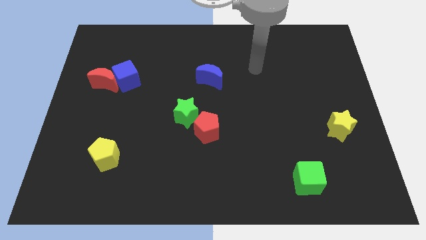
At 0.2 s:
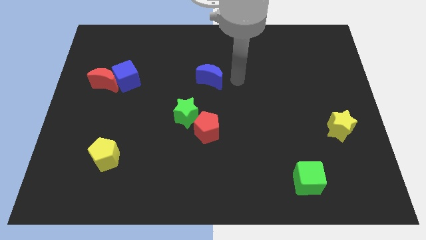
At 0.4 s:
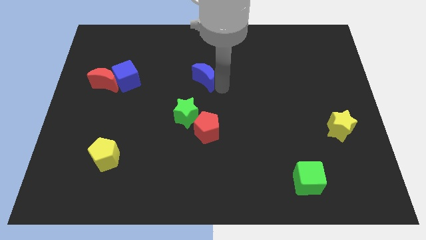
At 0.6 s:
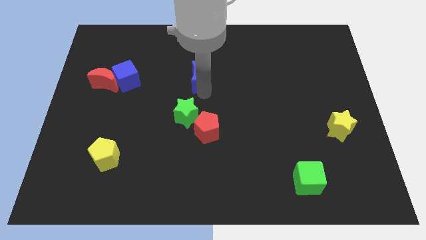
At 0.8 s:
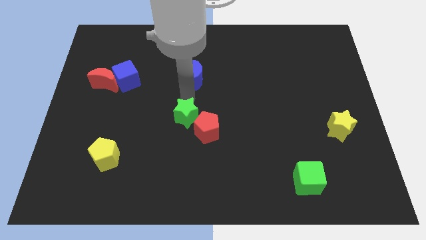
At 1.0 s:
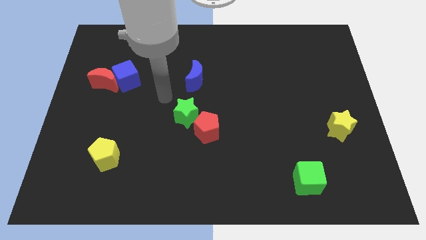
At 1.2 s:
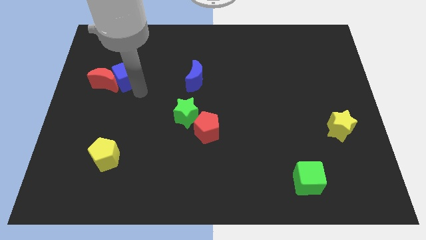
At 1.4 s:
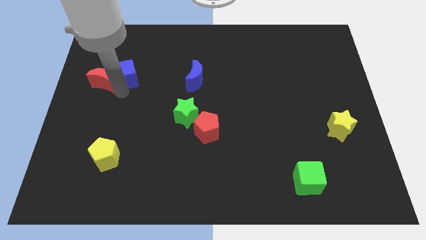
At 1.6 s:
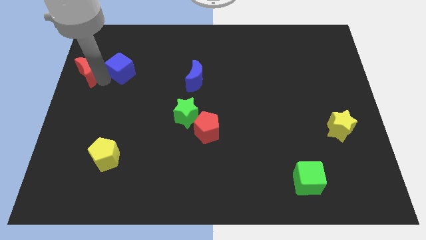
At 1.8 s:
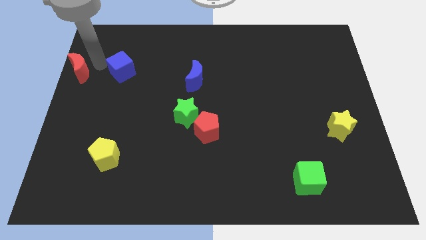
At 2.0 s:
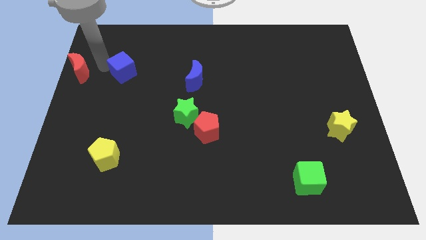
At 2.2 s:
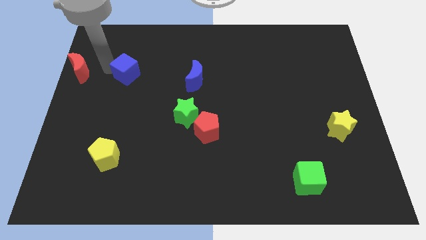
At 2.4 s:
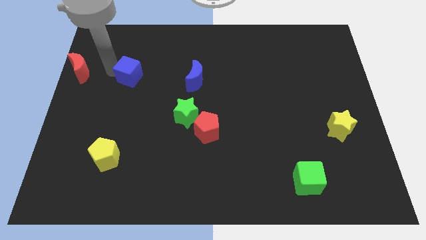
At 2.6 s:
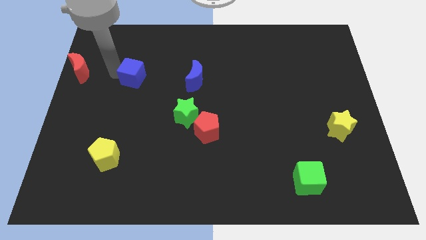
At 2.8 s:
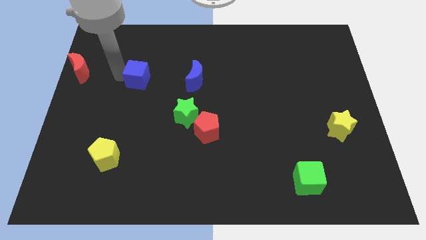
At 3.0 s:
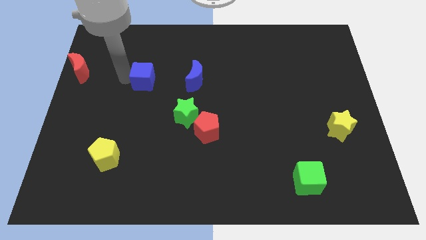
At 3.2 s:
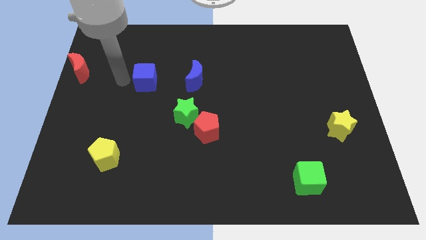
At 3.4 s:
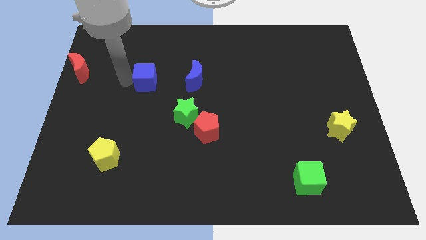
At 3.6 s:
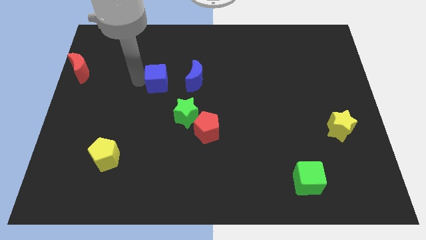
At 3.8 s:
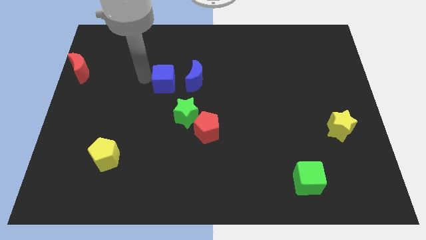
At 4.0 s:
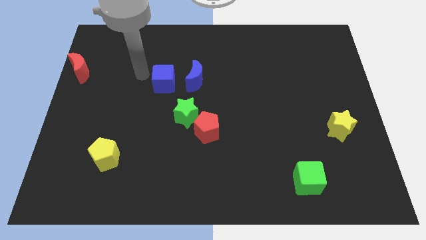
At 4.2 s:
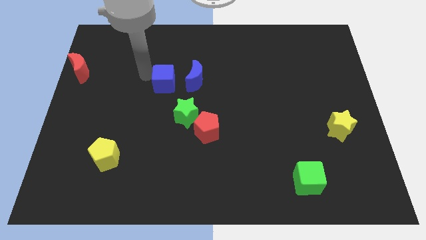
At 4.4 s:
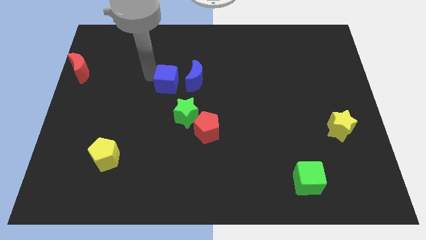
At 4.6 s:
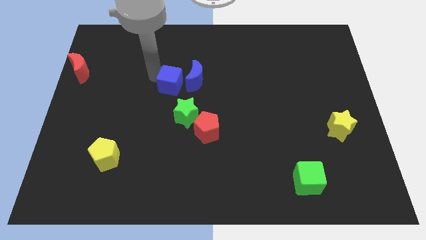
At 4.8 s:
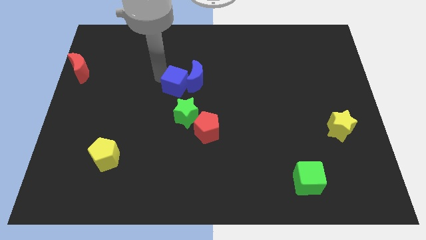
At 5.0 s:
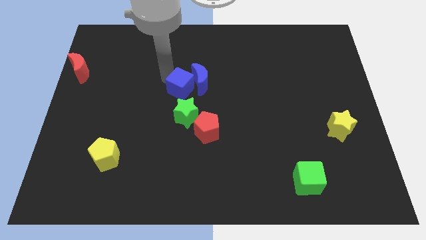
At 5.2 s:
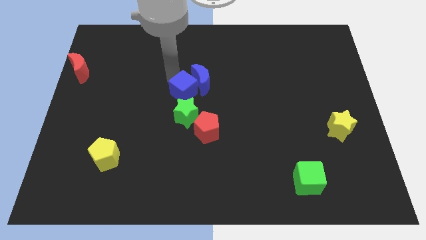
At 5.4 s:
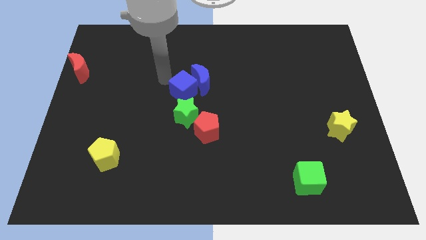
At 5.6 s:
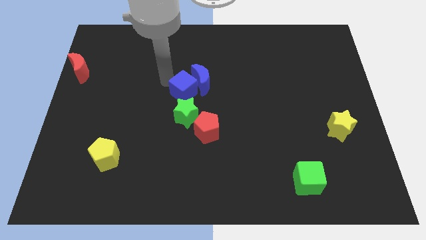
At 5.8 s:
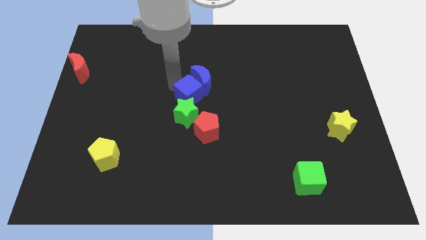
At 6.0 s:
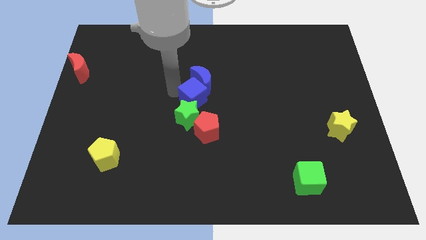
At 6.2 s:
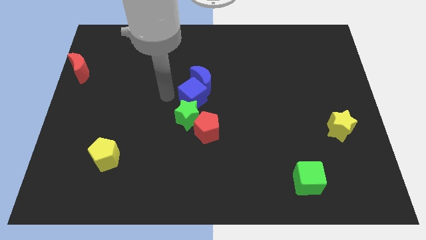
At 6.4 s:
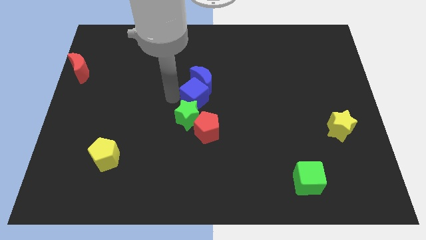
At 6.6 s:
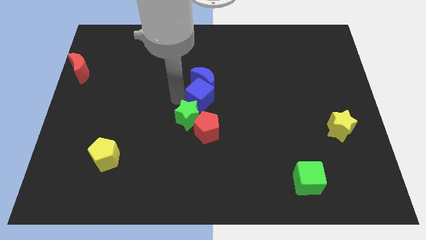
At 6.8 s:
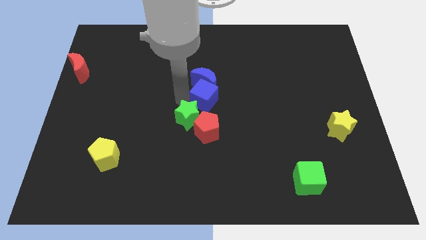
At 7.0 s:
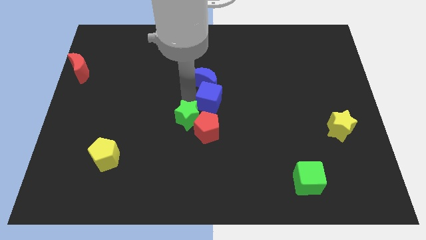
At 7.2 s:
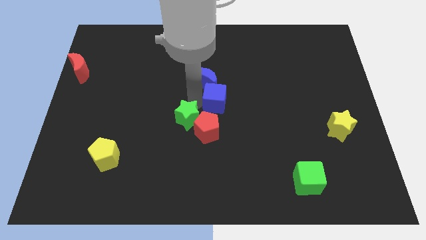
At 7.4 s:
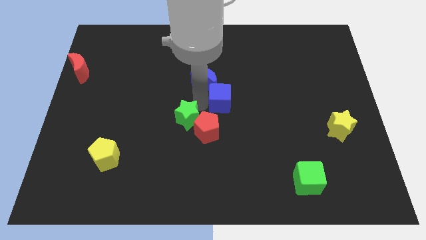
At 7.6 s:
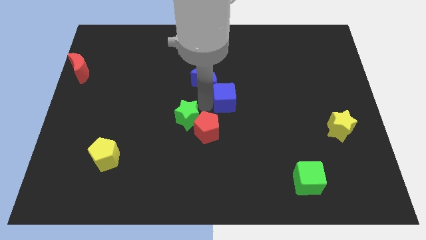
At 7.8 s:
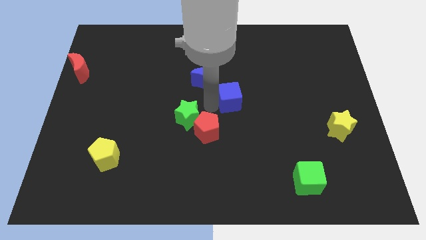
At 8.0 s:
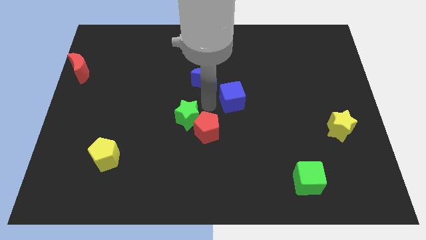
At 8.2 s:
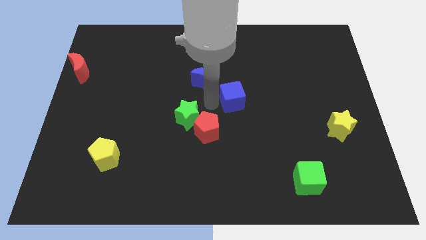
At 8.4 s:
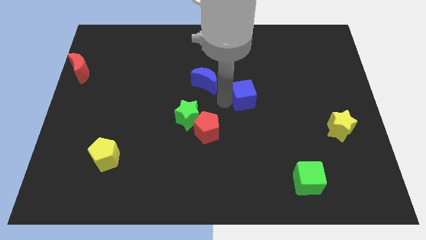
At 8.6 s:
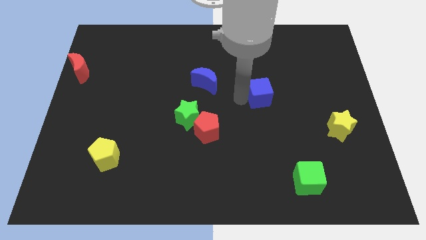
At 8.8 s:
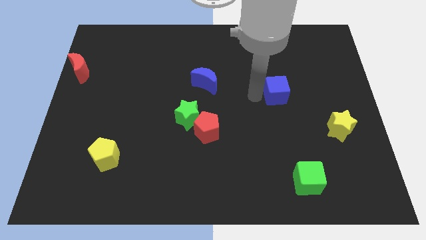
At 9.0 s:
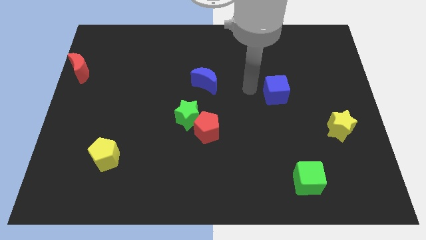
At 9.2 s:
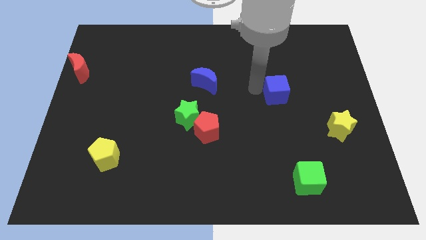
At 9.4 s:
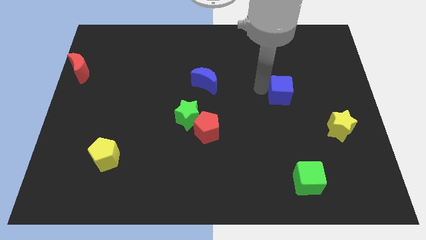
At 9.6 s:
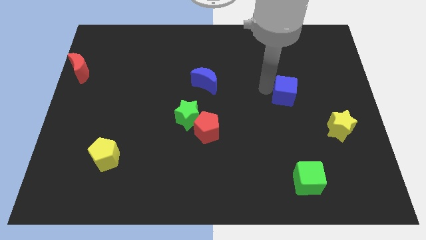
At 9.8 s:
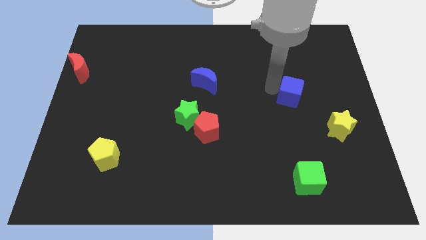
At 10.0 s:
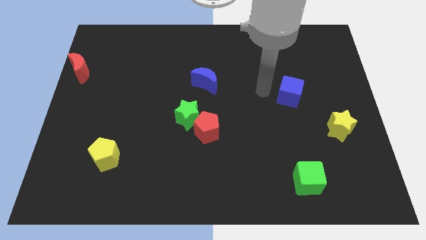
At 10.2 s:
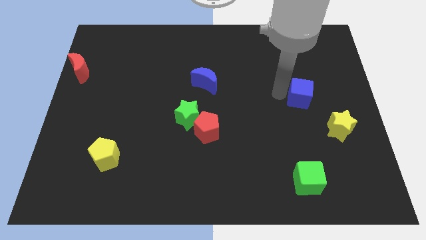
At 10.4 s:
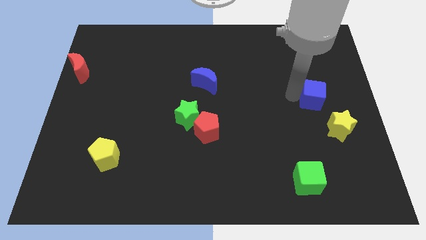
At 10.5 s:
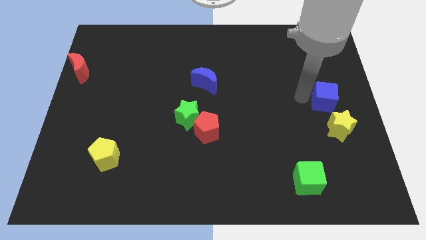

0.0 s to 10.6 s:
slide the blue cube to the center right

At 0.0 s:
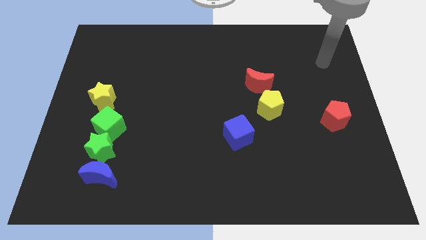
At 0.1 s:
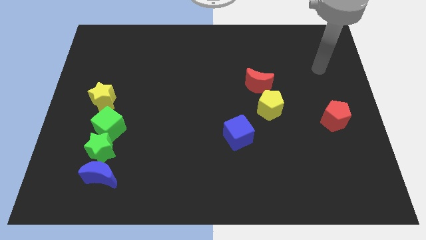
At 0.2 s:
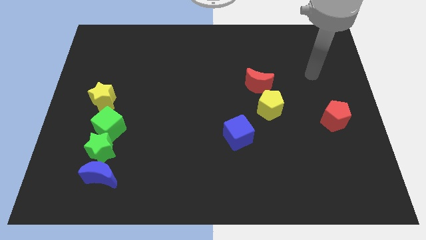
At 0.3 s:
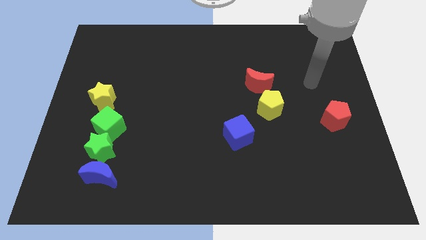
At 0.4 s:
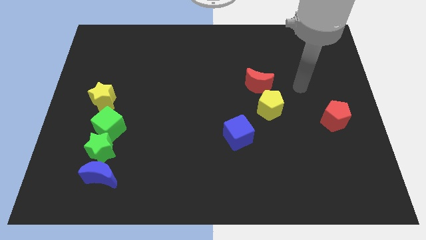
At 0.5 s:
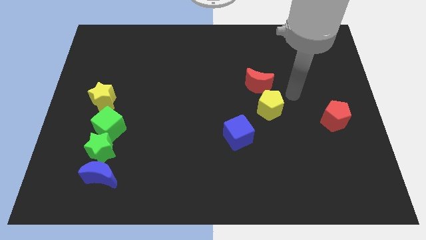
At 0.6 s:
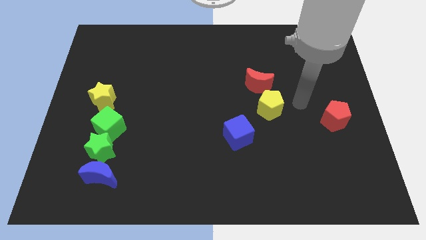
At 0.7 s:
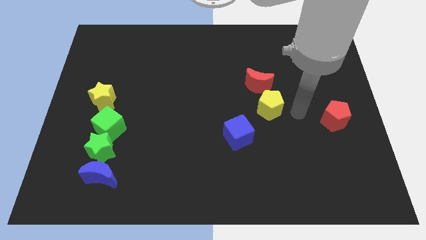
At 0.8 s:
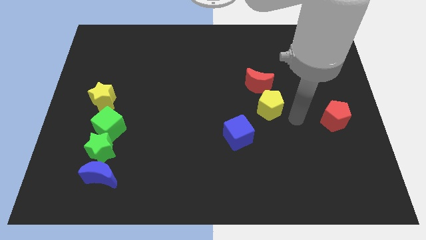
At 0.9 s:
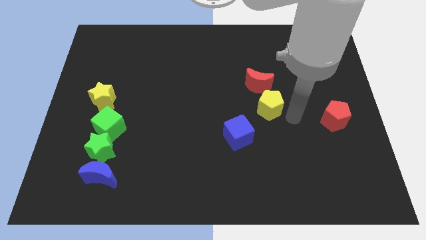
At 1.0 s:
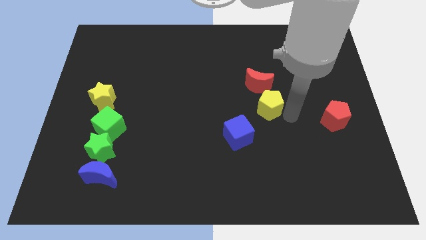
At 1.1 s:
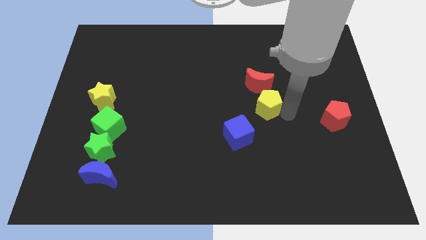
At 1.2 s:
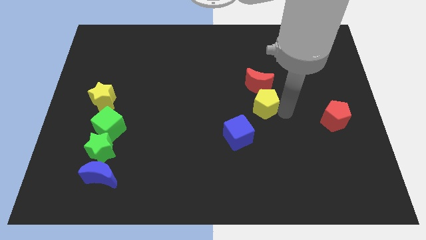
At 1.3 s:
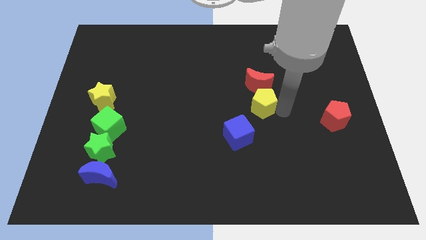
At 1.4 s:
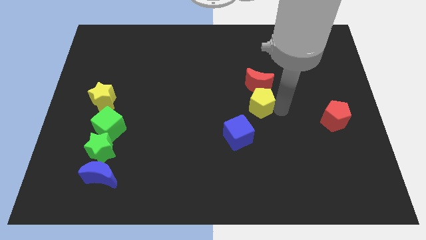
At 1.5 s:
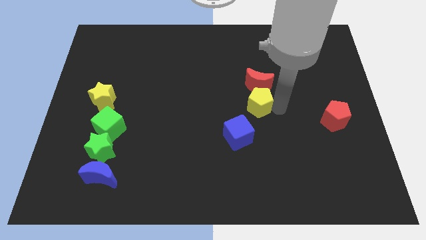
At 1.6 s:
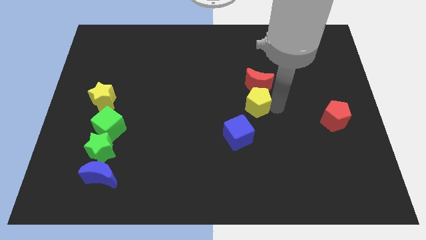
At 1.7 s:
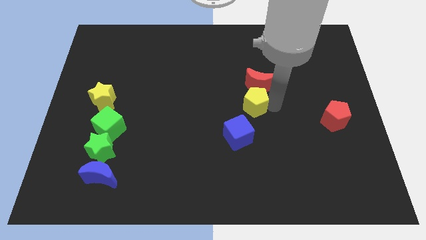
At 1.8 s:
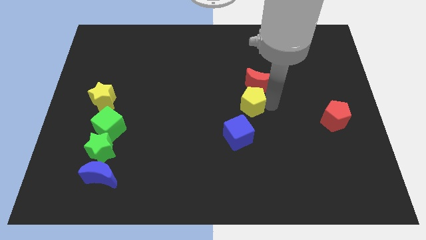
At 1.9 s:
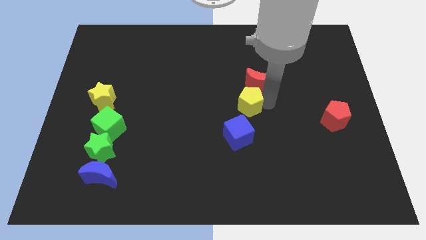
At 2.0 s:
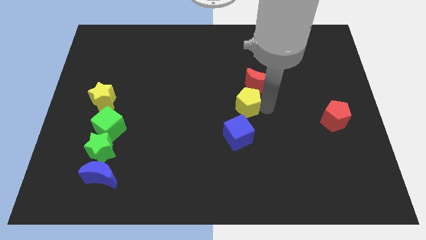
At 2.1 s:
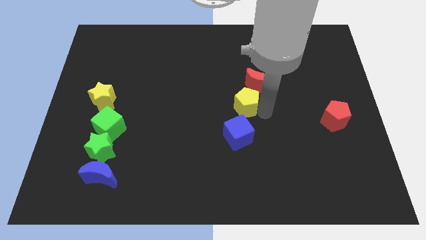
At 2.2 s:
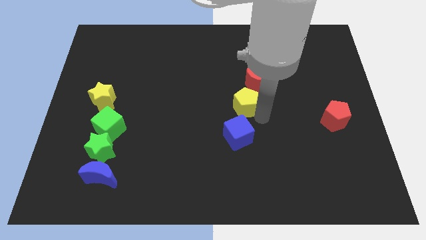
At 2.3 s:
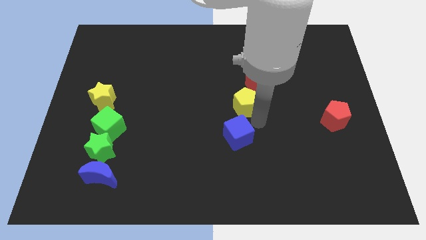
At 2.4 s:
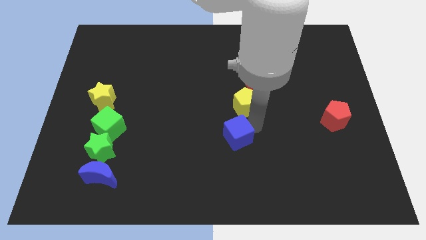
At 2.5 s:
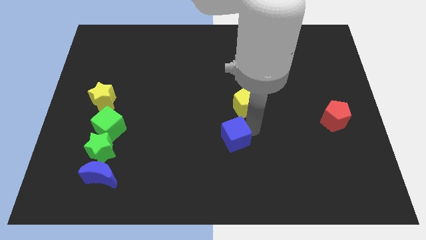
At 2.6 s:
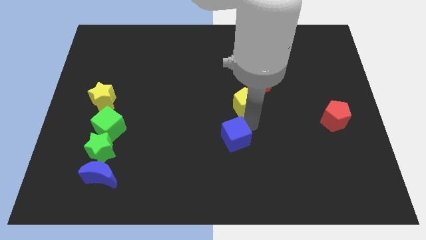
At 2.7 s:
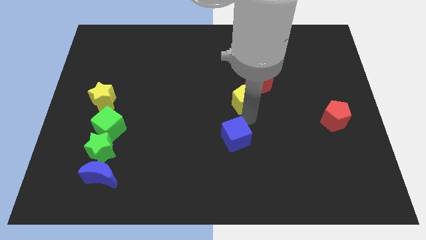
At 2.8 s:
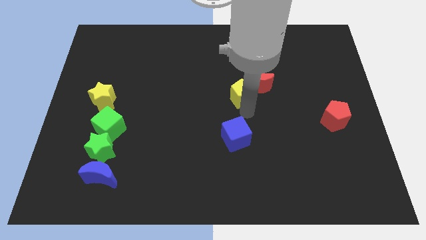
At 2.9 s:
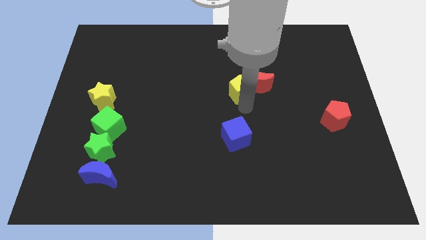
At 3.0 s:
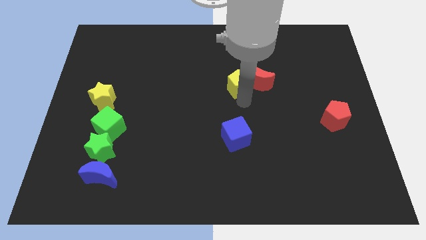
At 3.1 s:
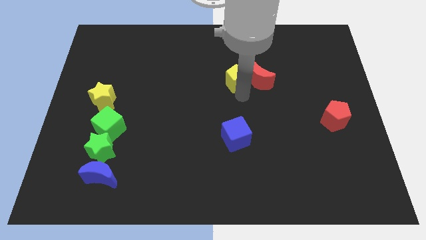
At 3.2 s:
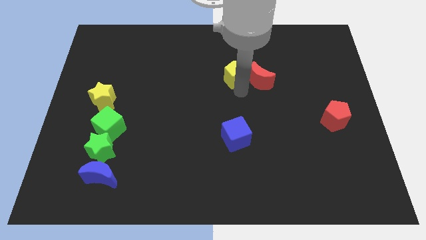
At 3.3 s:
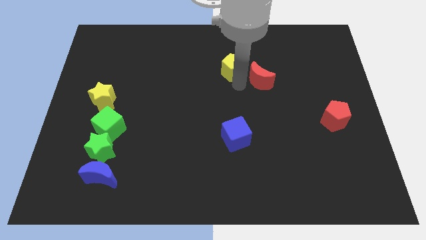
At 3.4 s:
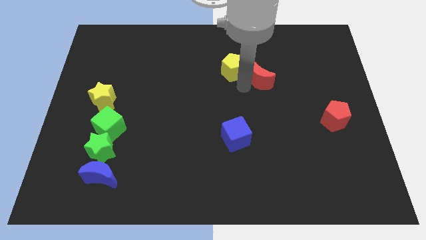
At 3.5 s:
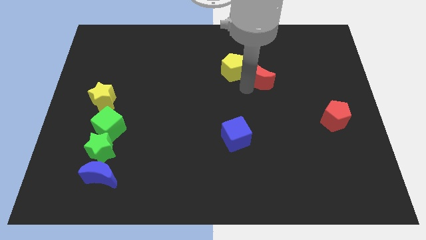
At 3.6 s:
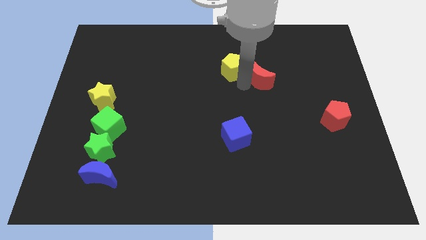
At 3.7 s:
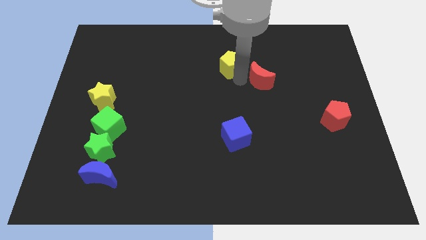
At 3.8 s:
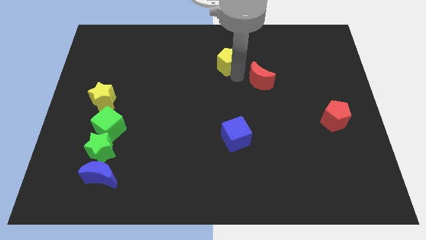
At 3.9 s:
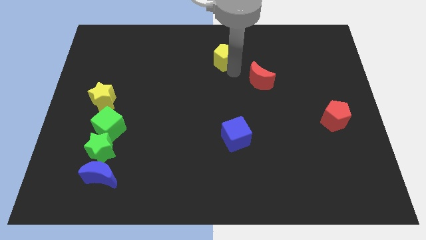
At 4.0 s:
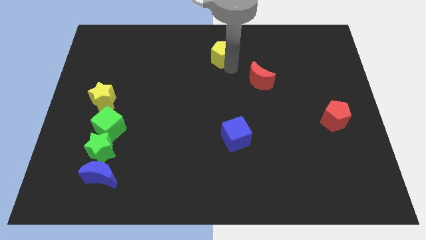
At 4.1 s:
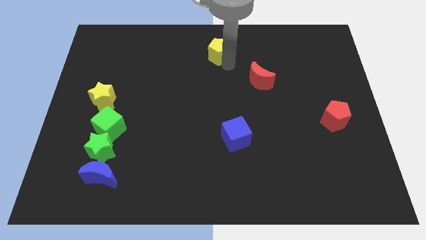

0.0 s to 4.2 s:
push the yellow pentagon to the towards your base
